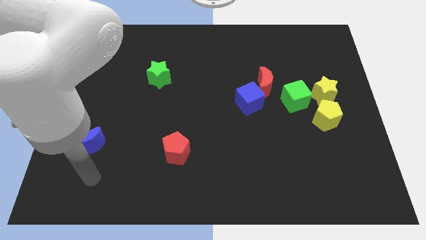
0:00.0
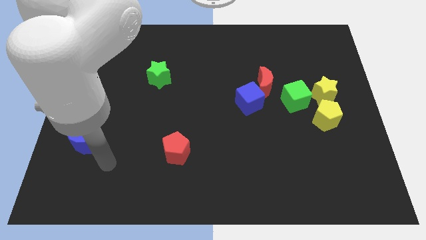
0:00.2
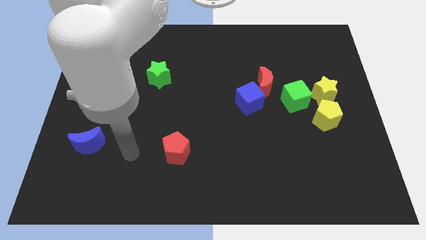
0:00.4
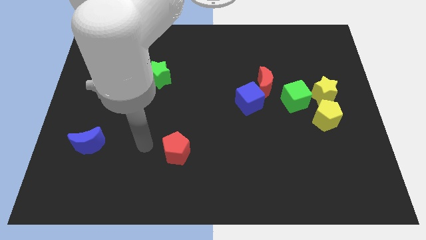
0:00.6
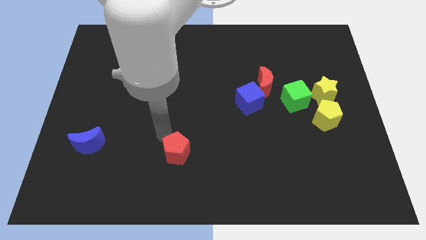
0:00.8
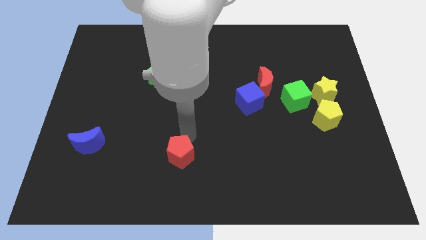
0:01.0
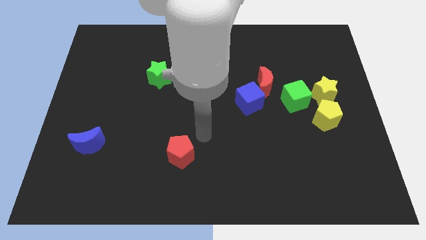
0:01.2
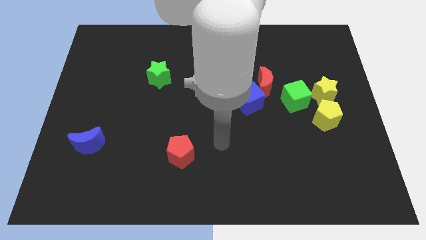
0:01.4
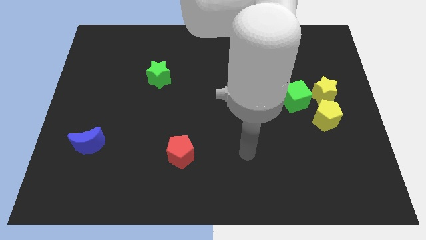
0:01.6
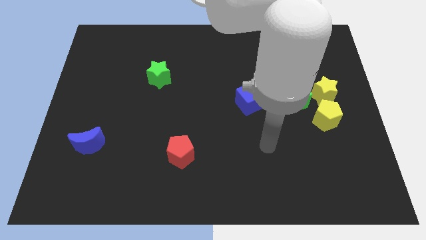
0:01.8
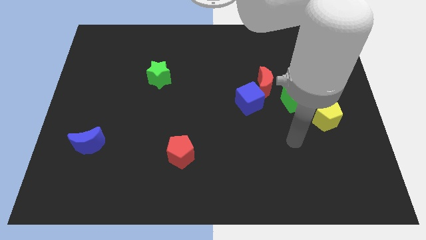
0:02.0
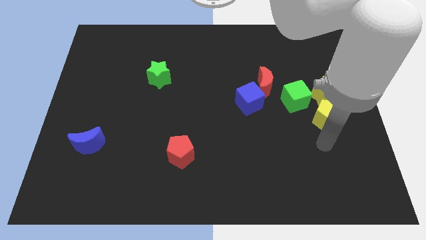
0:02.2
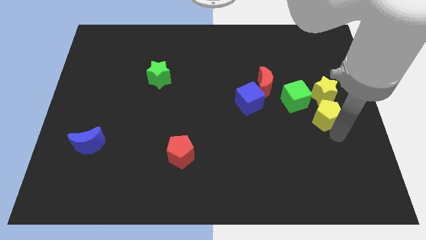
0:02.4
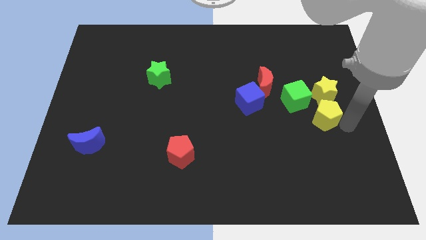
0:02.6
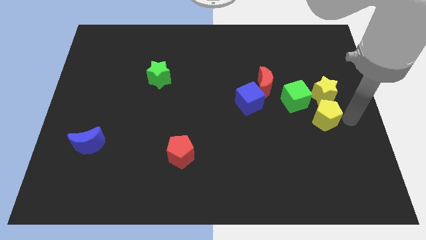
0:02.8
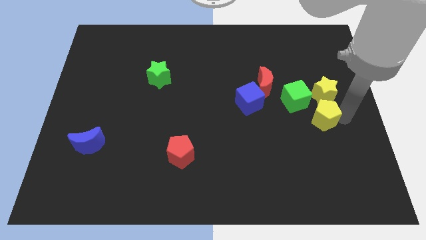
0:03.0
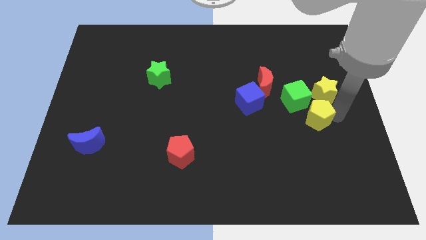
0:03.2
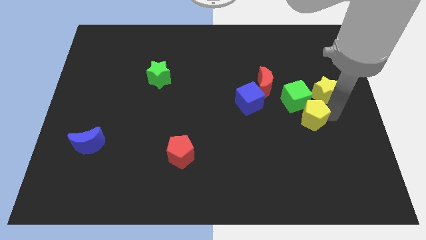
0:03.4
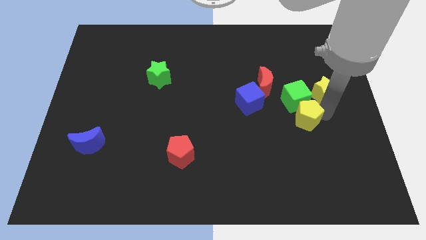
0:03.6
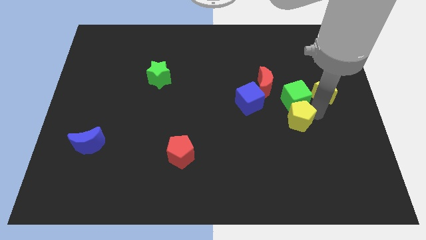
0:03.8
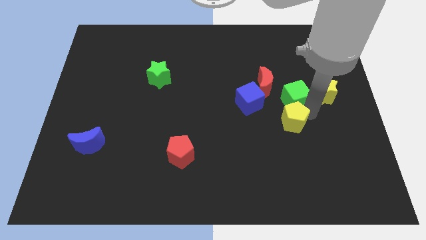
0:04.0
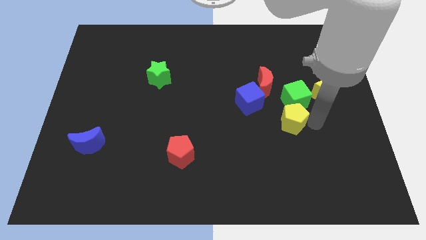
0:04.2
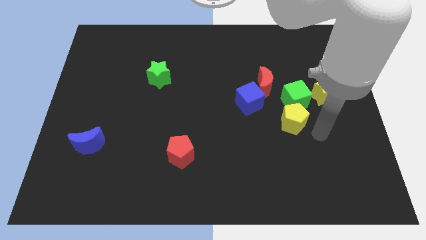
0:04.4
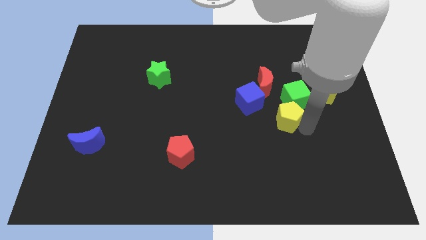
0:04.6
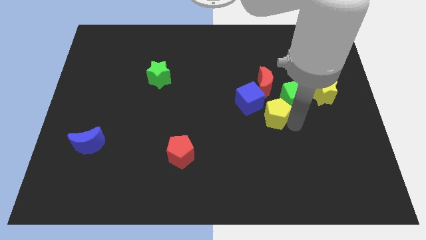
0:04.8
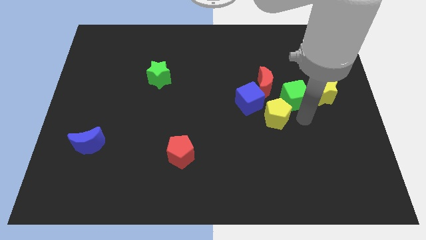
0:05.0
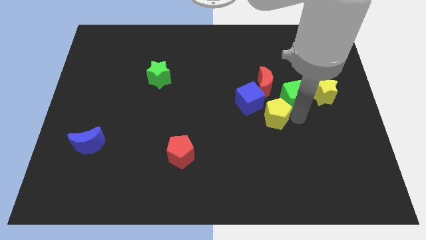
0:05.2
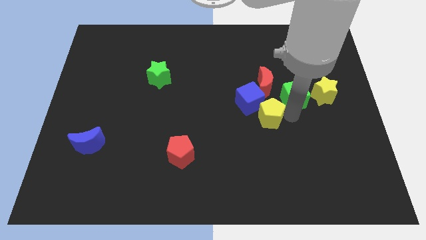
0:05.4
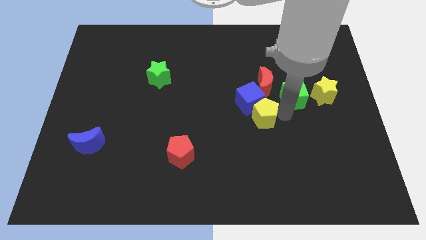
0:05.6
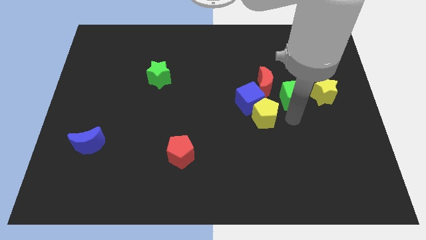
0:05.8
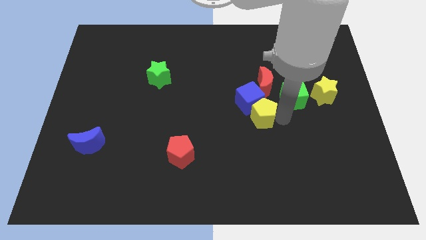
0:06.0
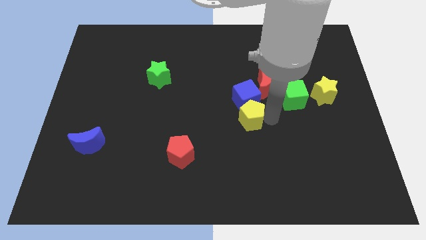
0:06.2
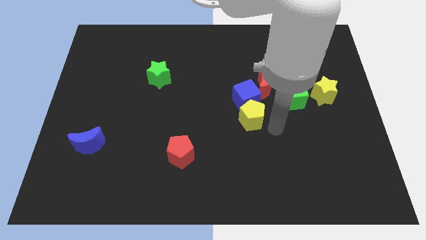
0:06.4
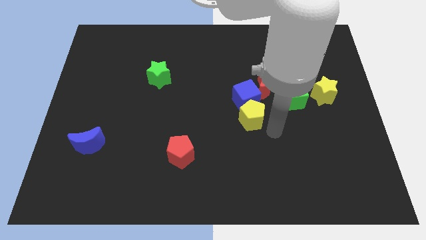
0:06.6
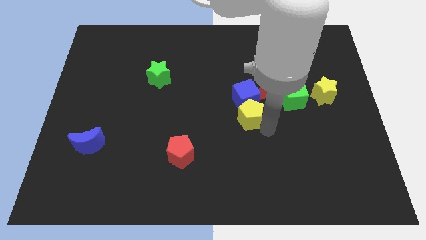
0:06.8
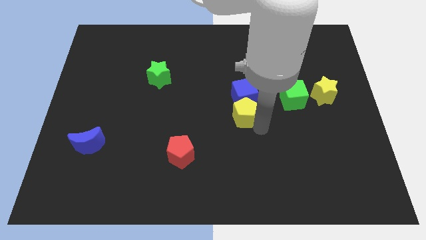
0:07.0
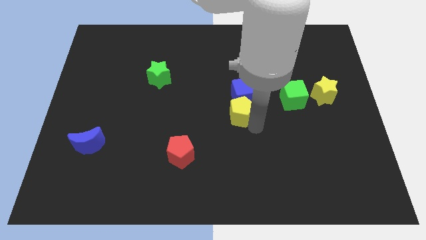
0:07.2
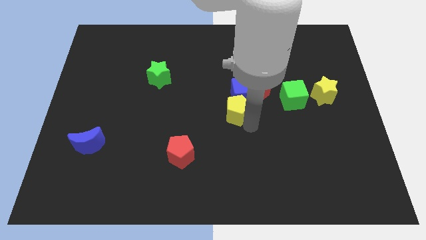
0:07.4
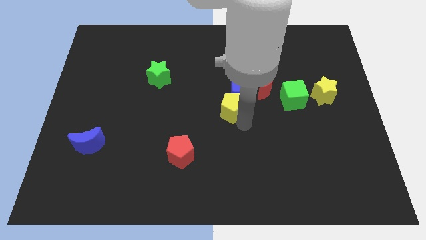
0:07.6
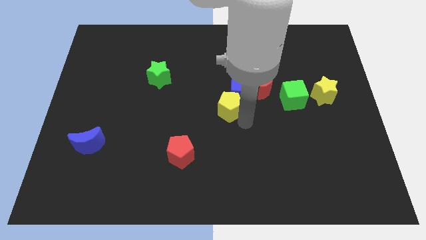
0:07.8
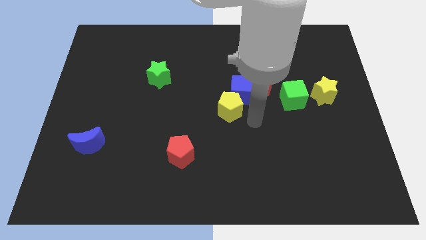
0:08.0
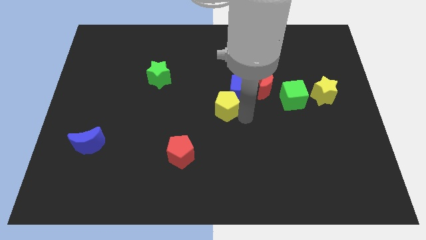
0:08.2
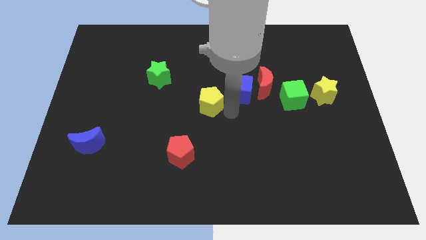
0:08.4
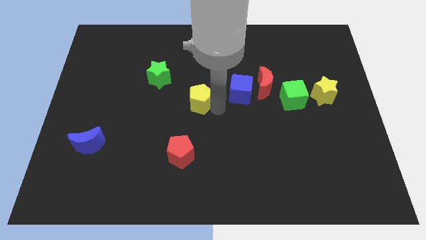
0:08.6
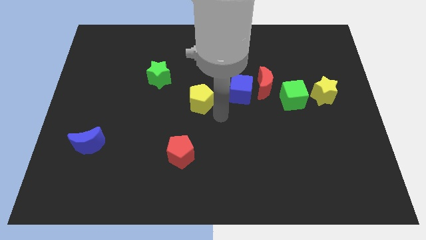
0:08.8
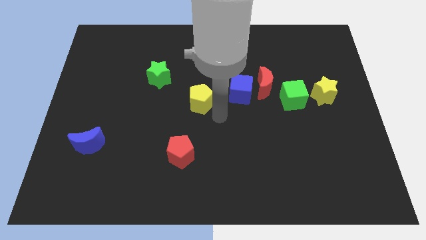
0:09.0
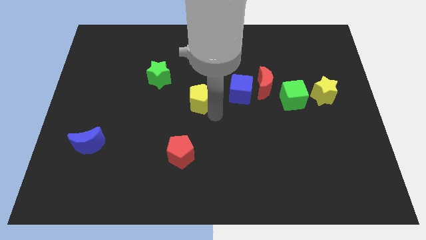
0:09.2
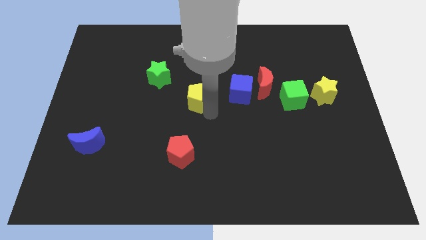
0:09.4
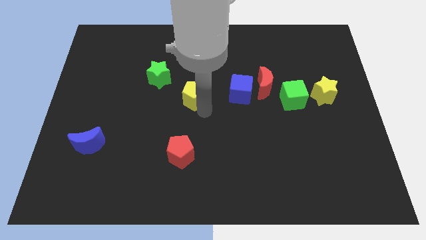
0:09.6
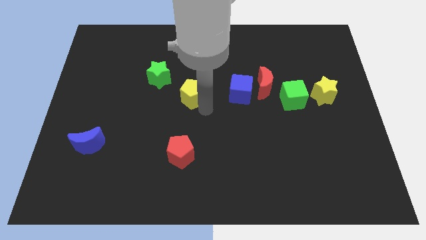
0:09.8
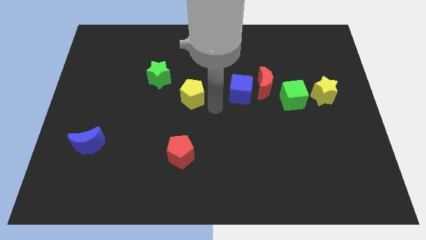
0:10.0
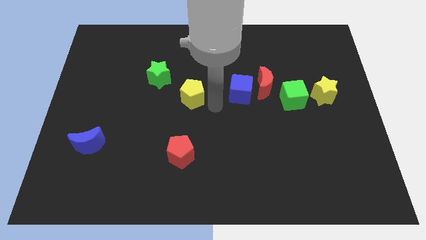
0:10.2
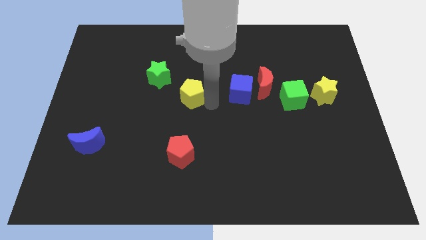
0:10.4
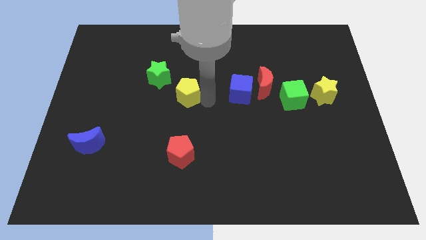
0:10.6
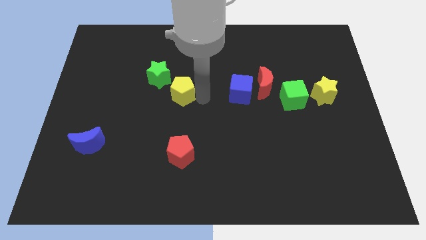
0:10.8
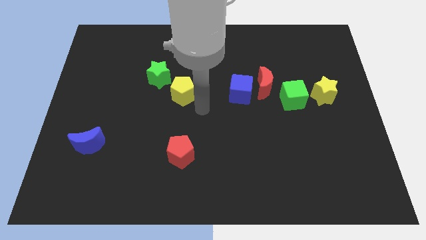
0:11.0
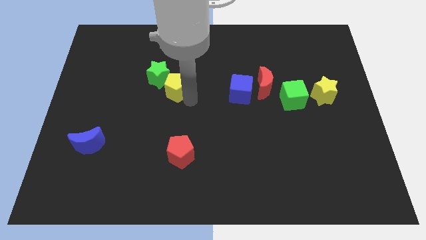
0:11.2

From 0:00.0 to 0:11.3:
push the yellow pentagon to the green star

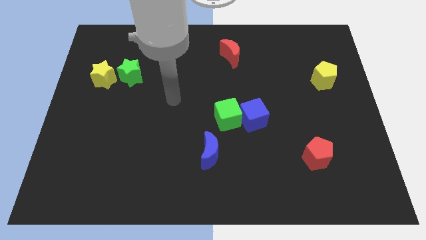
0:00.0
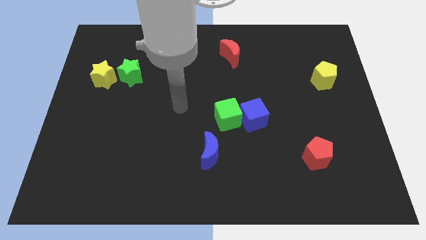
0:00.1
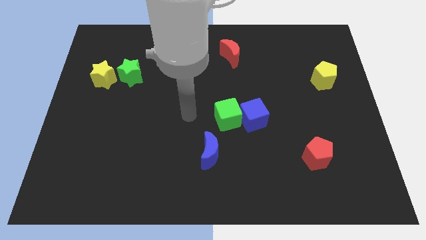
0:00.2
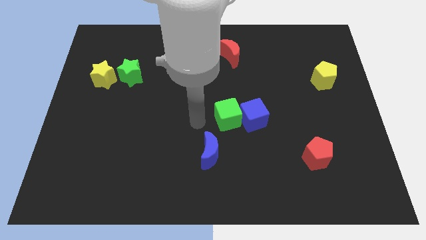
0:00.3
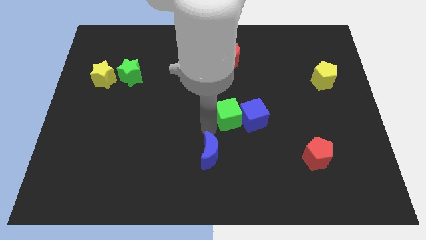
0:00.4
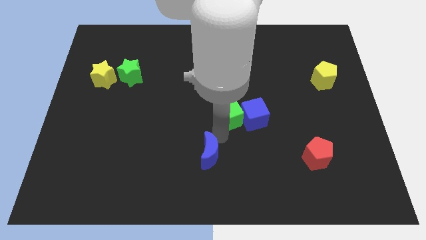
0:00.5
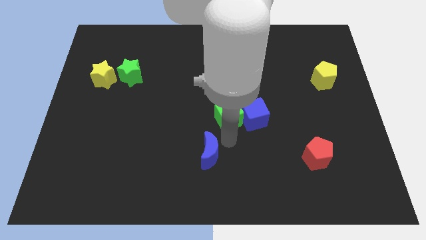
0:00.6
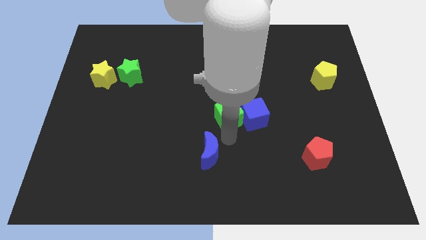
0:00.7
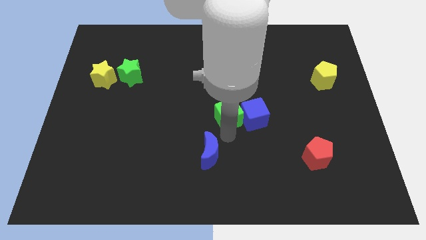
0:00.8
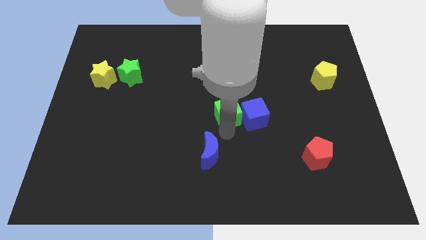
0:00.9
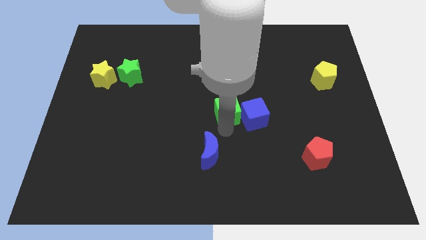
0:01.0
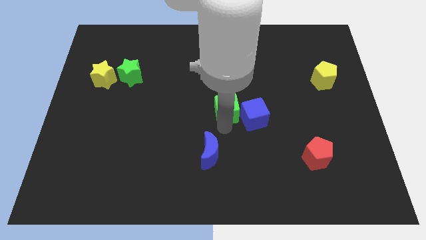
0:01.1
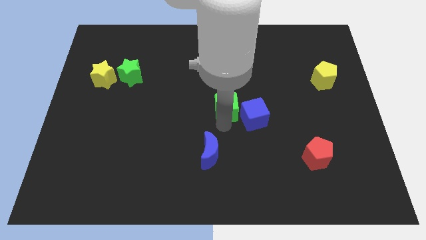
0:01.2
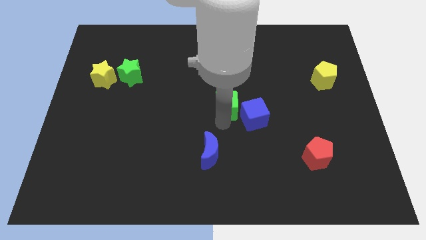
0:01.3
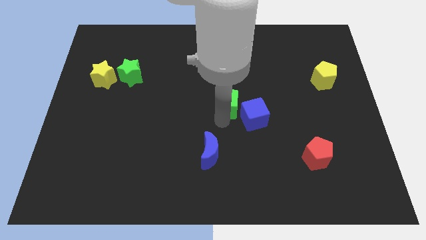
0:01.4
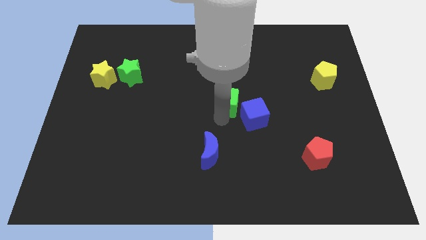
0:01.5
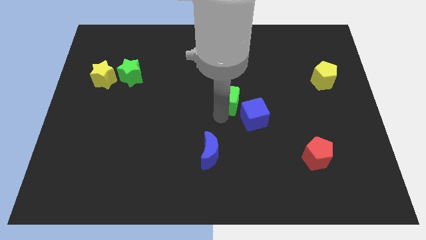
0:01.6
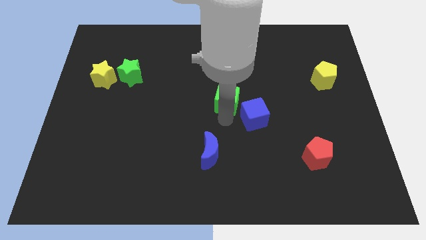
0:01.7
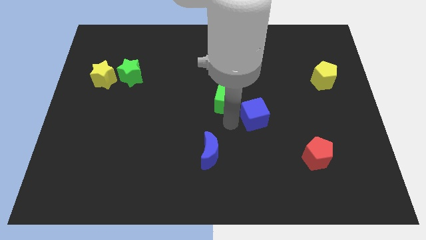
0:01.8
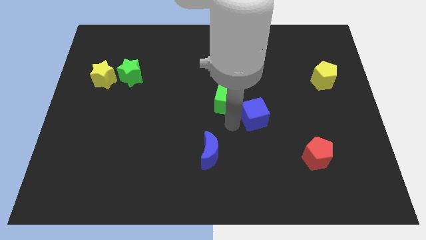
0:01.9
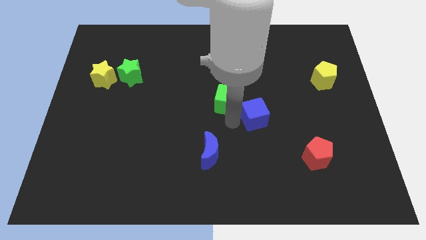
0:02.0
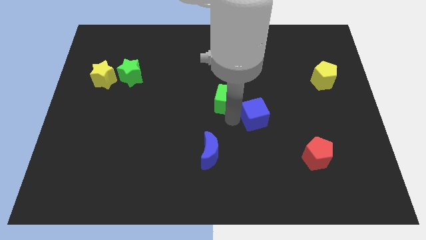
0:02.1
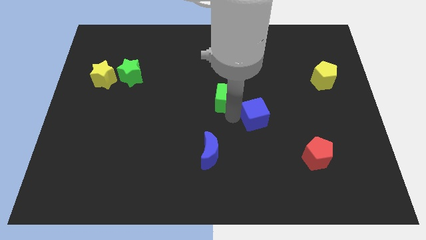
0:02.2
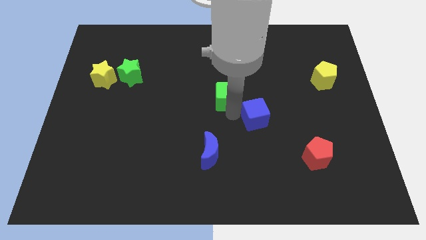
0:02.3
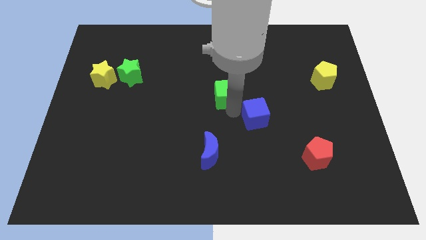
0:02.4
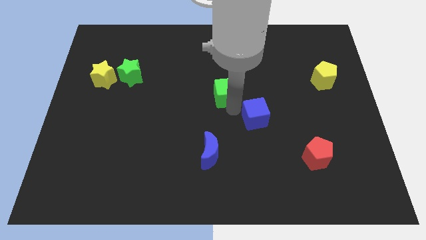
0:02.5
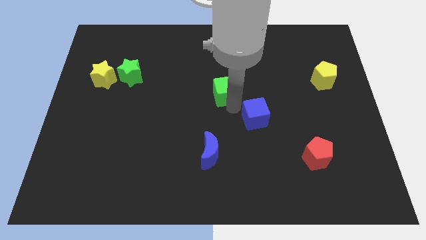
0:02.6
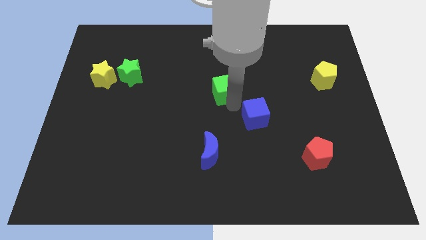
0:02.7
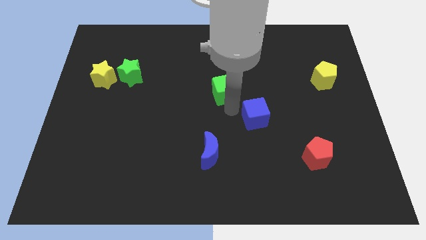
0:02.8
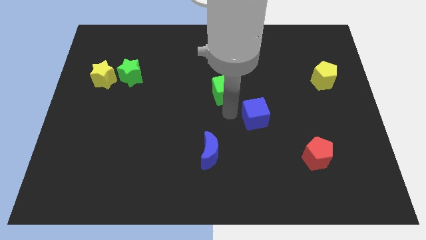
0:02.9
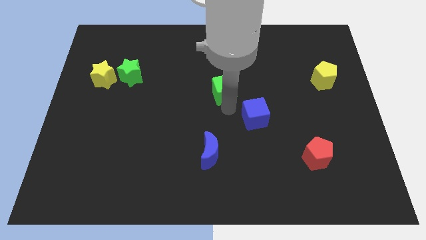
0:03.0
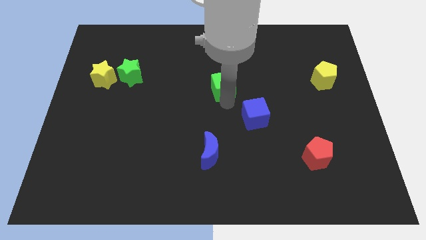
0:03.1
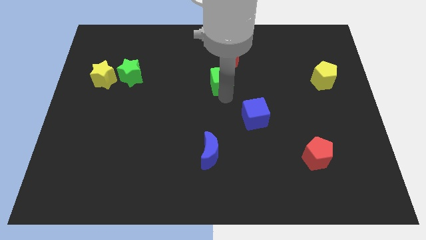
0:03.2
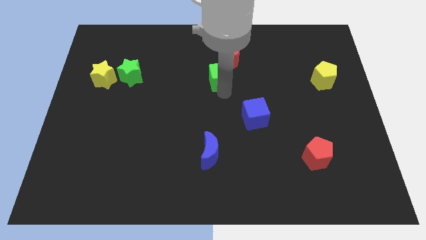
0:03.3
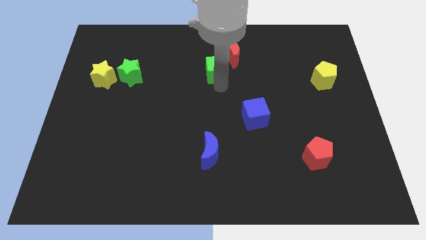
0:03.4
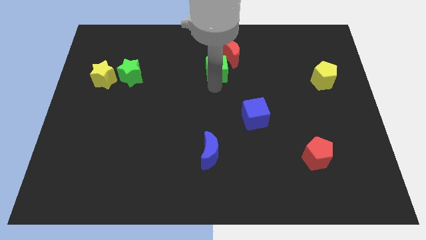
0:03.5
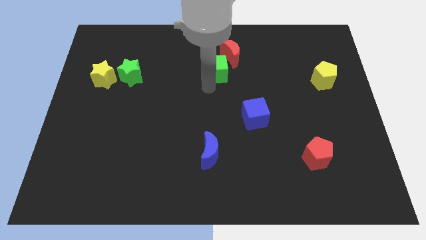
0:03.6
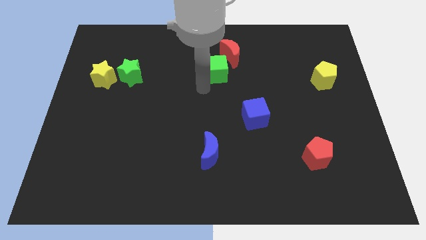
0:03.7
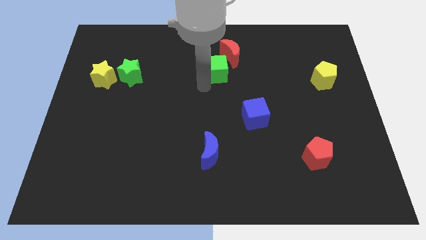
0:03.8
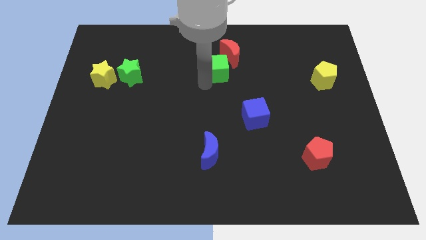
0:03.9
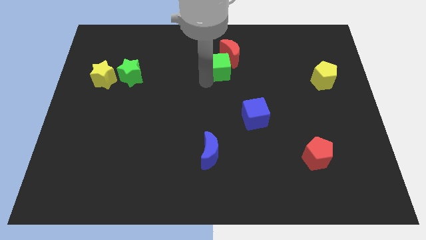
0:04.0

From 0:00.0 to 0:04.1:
slide the green cube close to the red moon
